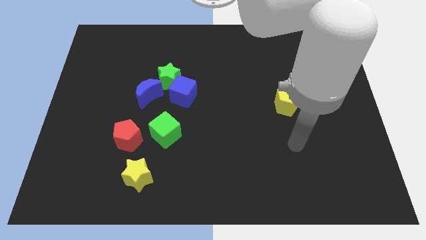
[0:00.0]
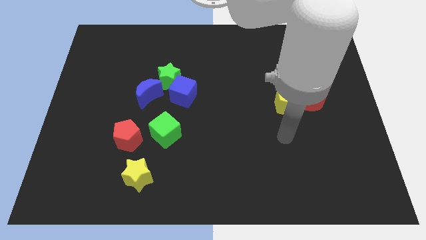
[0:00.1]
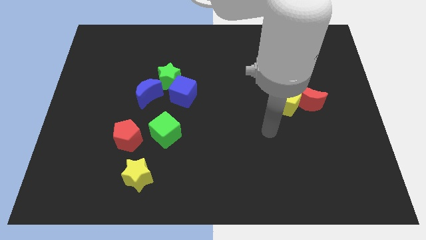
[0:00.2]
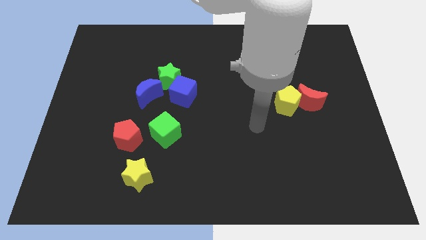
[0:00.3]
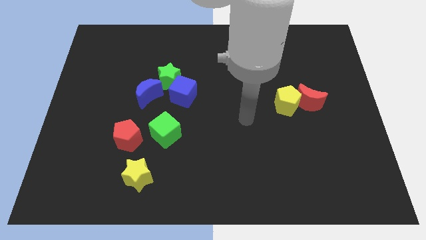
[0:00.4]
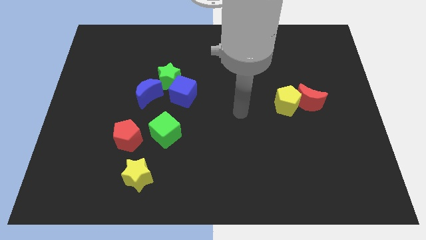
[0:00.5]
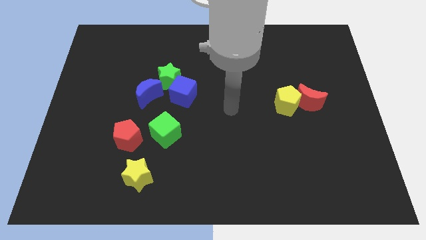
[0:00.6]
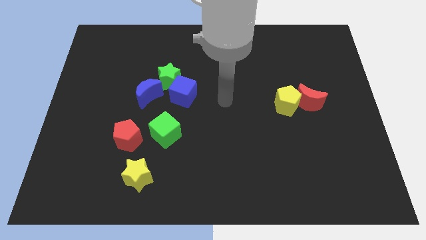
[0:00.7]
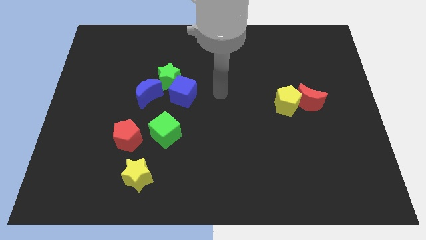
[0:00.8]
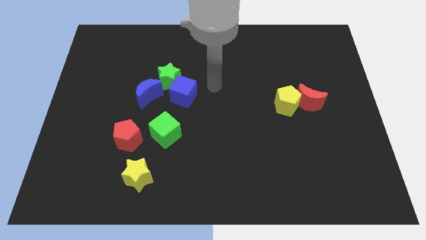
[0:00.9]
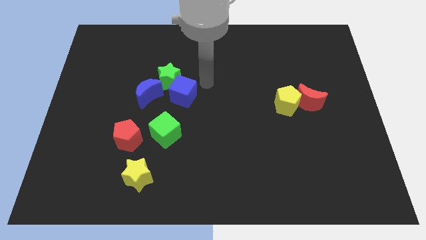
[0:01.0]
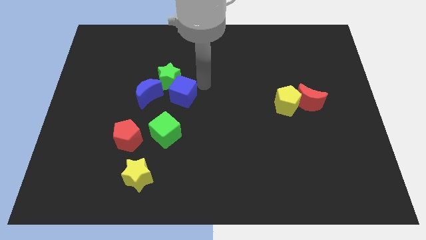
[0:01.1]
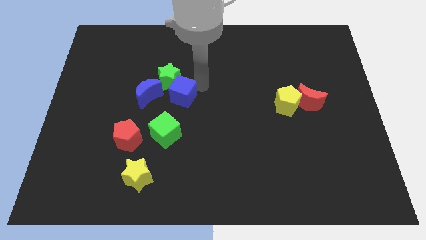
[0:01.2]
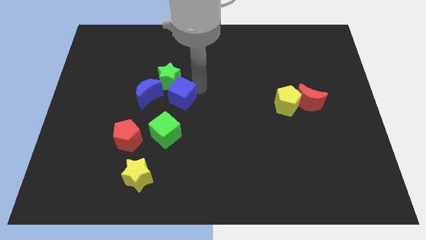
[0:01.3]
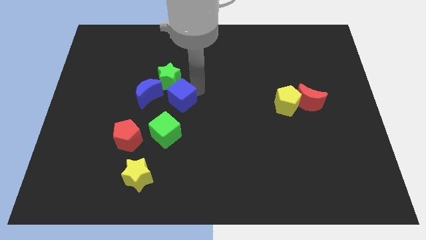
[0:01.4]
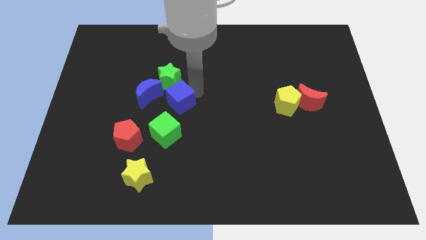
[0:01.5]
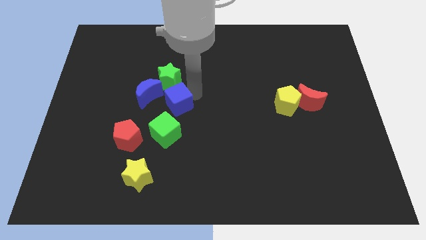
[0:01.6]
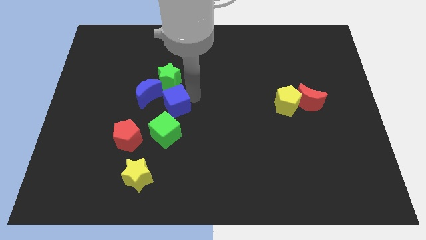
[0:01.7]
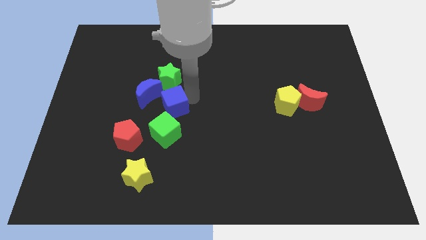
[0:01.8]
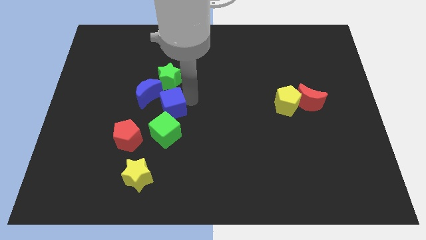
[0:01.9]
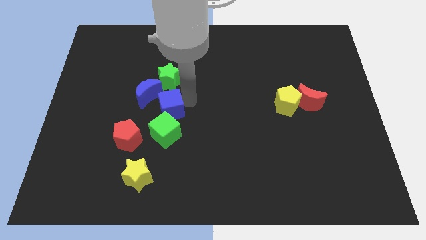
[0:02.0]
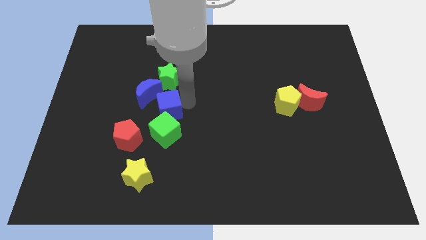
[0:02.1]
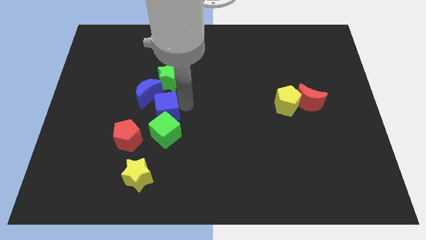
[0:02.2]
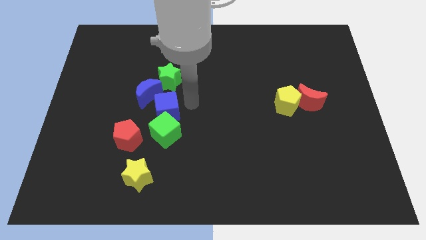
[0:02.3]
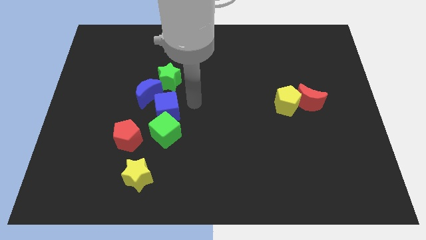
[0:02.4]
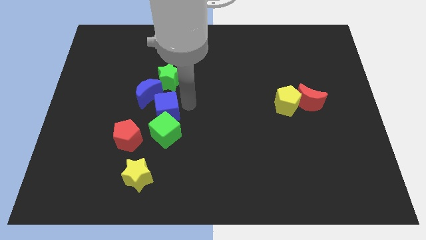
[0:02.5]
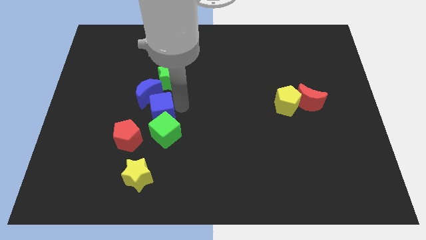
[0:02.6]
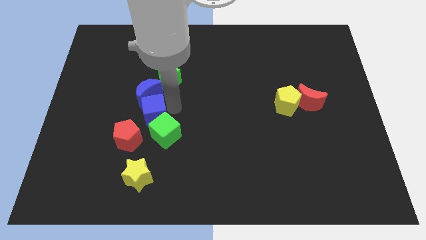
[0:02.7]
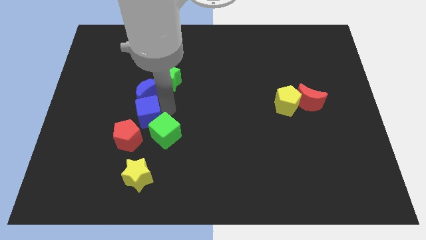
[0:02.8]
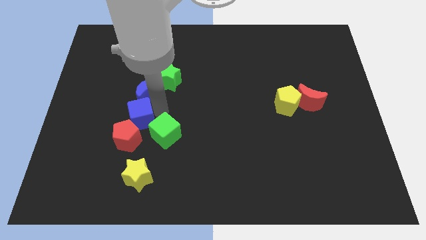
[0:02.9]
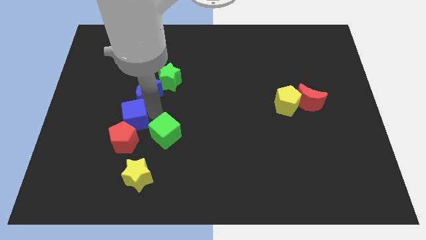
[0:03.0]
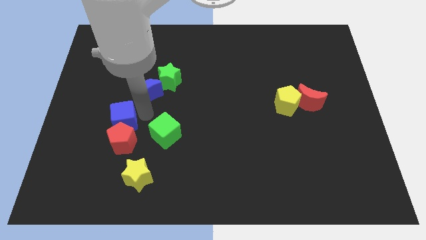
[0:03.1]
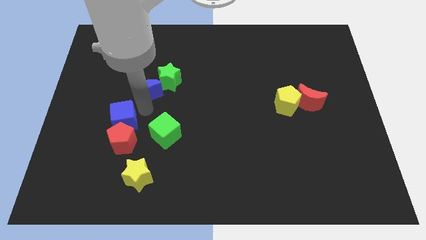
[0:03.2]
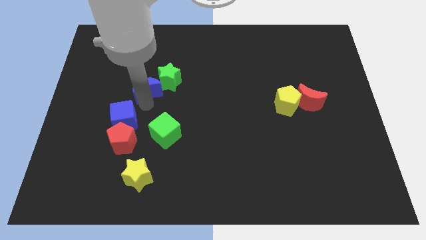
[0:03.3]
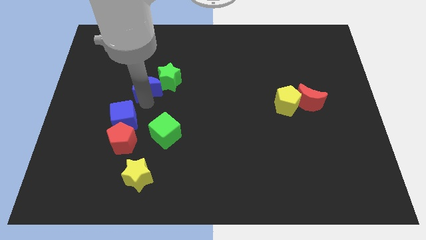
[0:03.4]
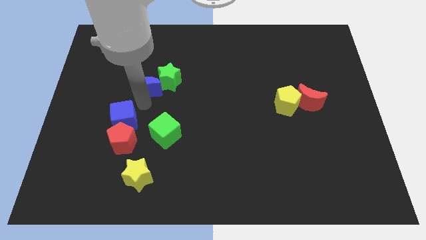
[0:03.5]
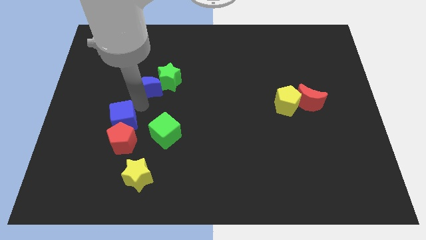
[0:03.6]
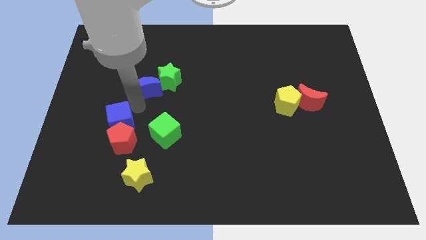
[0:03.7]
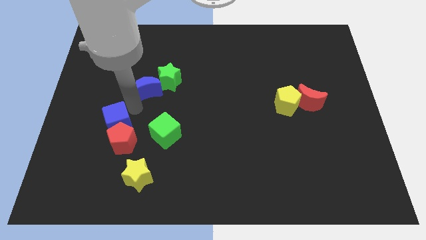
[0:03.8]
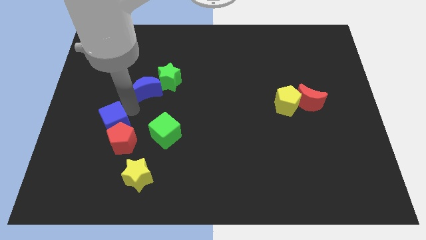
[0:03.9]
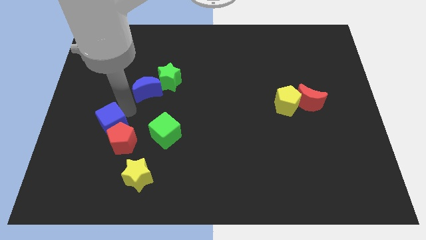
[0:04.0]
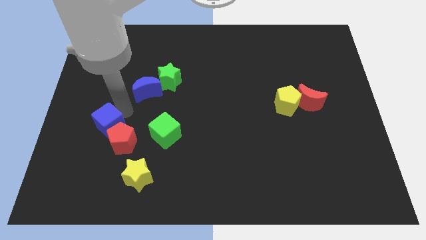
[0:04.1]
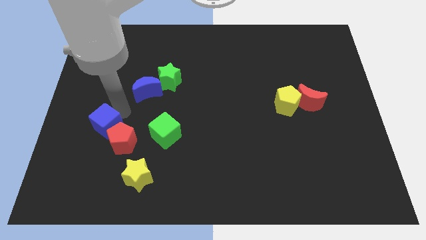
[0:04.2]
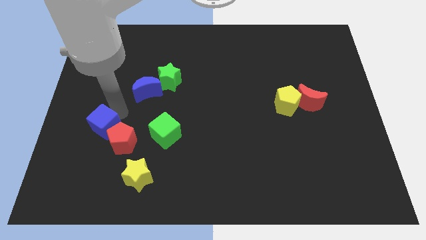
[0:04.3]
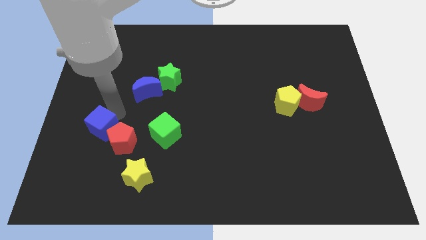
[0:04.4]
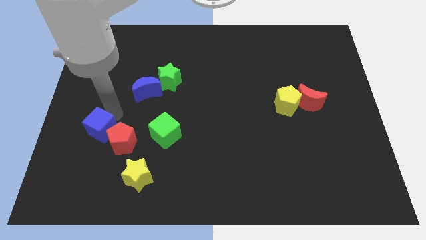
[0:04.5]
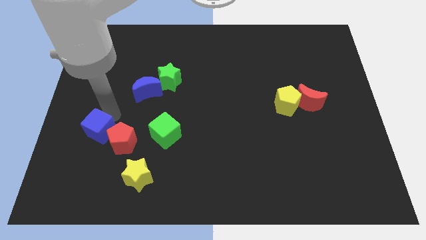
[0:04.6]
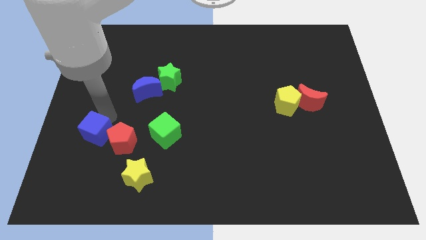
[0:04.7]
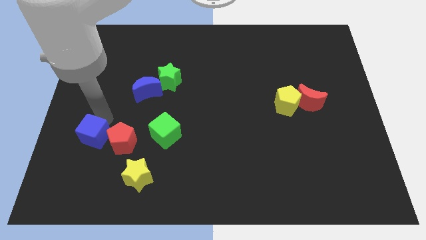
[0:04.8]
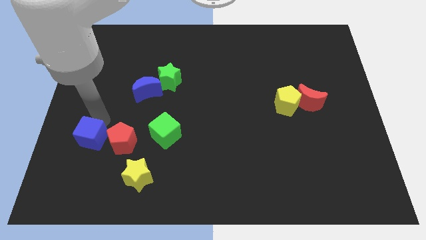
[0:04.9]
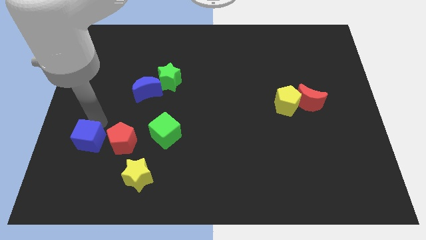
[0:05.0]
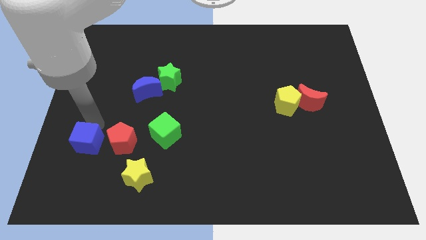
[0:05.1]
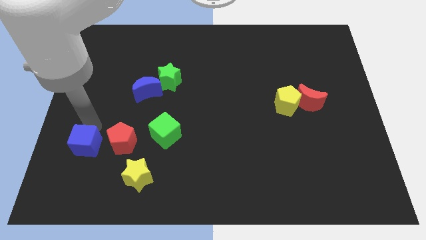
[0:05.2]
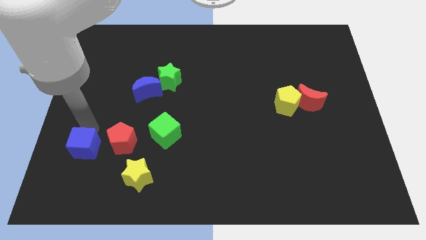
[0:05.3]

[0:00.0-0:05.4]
push the blue cube to the bottom left of the red pentagon

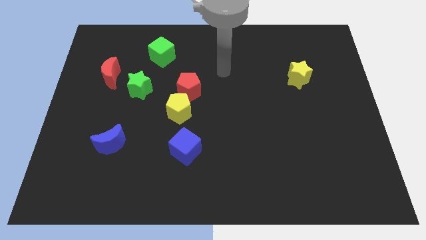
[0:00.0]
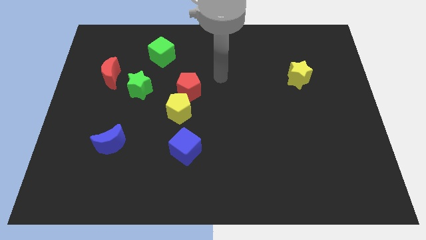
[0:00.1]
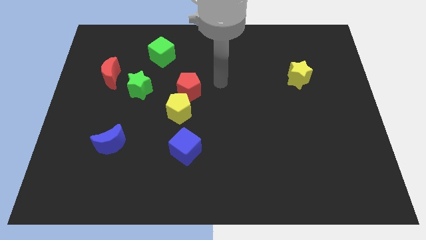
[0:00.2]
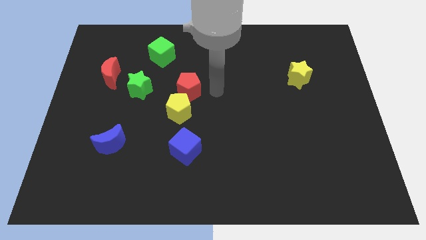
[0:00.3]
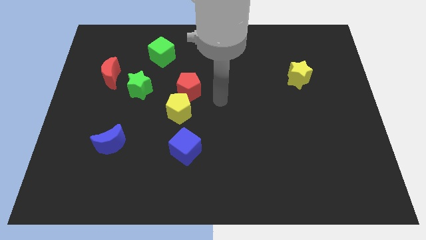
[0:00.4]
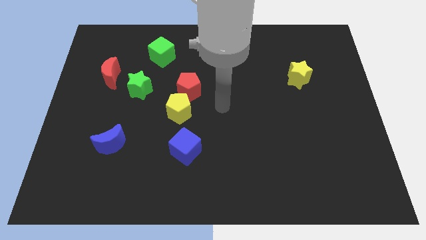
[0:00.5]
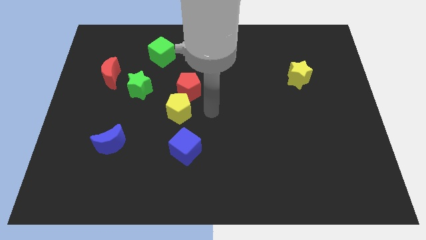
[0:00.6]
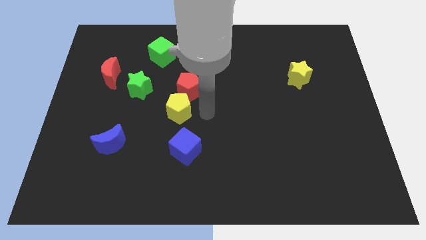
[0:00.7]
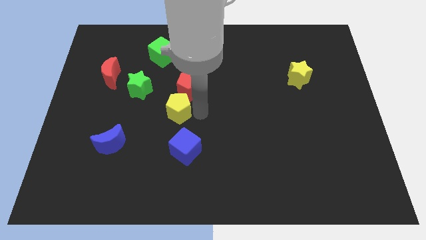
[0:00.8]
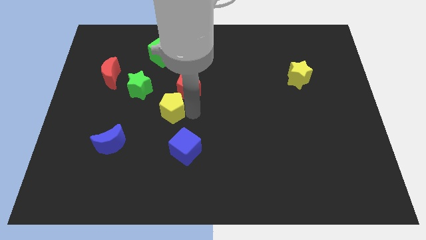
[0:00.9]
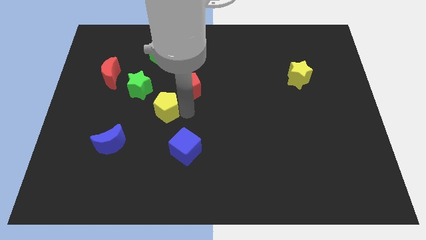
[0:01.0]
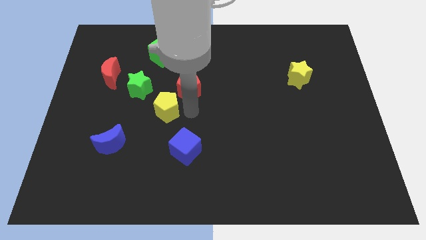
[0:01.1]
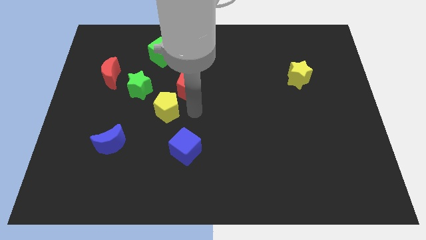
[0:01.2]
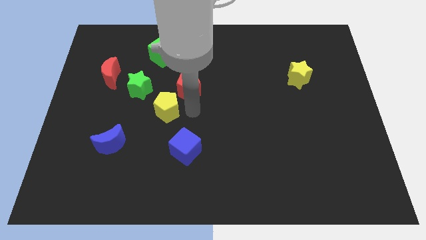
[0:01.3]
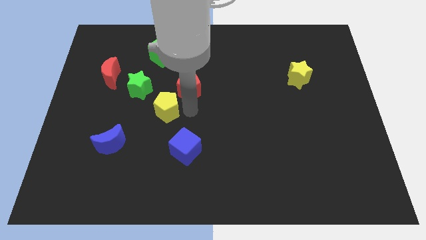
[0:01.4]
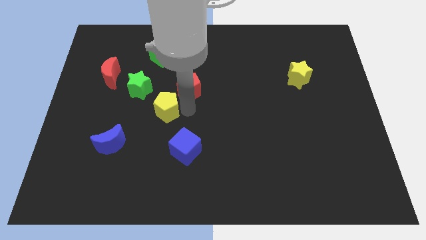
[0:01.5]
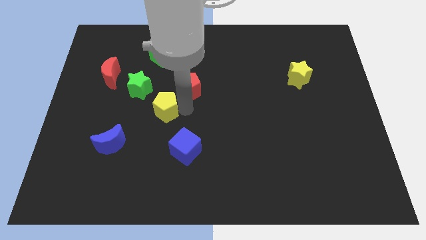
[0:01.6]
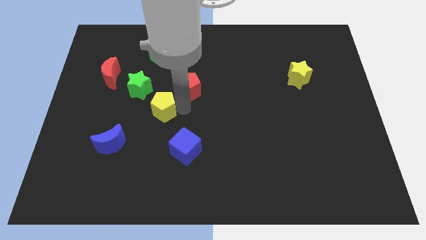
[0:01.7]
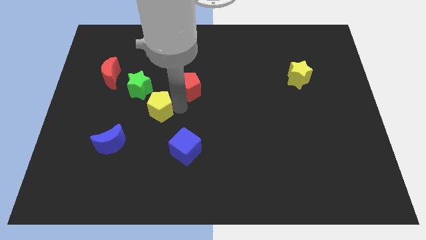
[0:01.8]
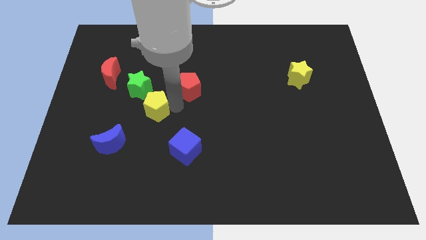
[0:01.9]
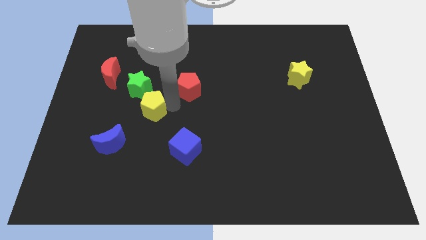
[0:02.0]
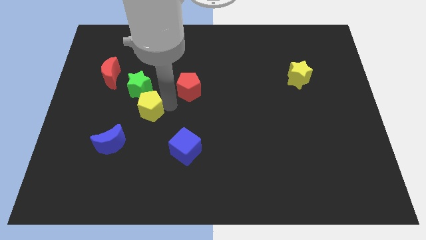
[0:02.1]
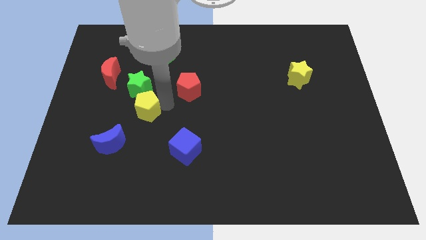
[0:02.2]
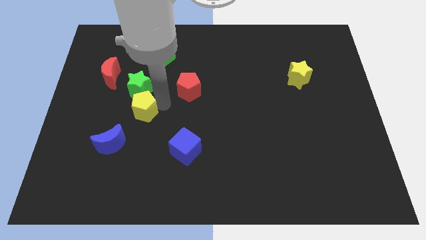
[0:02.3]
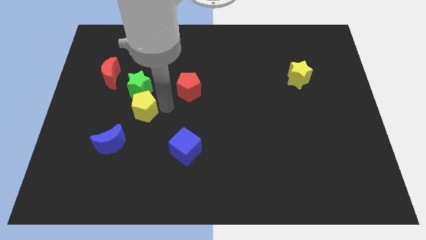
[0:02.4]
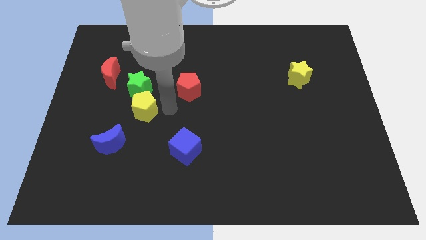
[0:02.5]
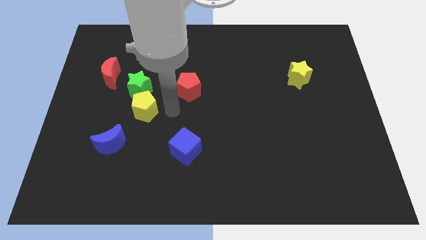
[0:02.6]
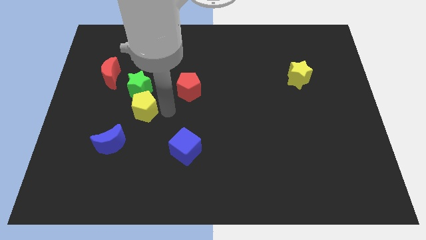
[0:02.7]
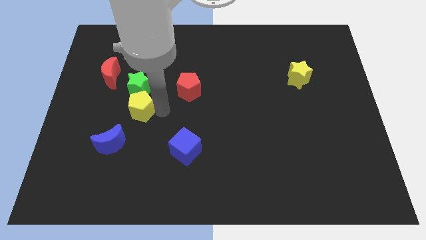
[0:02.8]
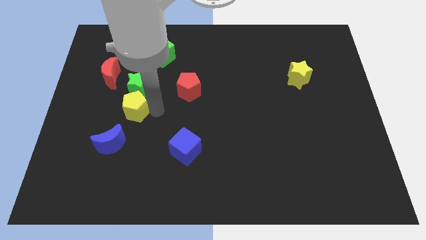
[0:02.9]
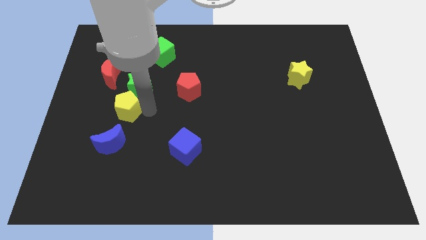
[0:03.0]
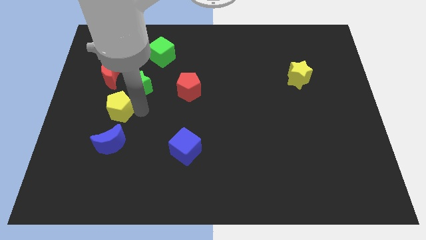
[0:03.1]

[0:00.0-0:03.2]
put the yellow pentagon to the bottom side of the red moon
